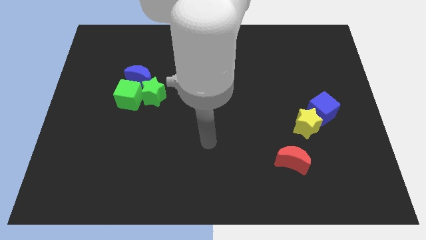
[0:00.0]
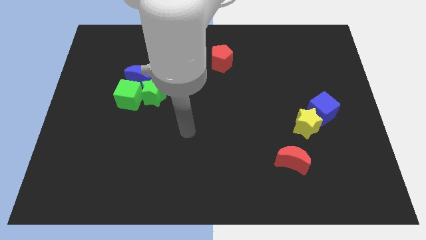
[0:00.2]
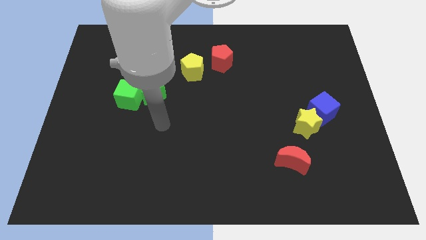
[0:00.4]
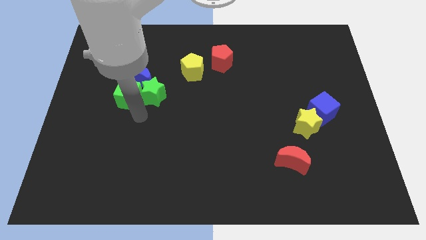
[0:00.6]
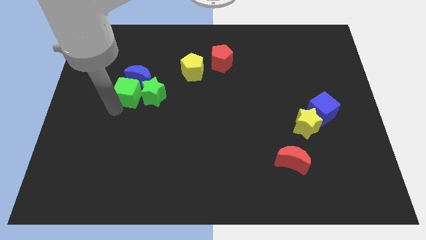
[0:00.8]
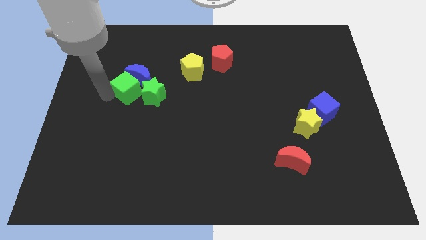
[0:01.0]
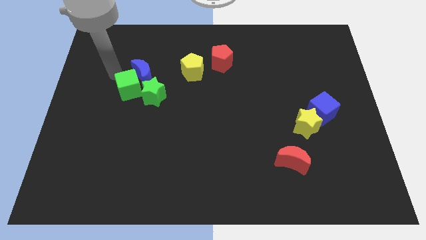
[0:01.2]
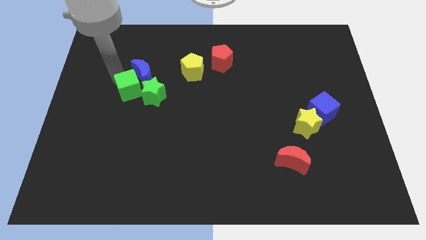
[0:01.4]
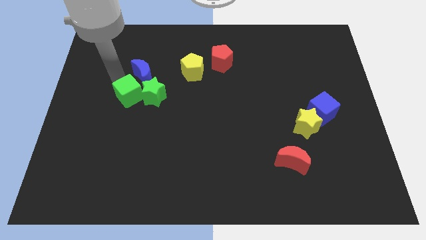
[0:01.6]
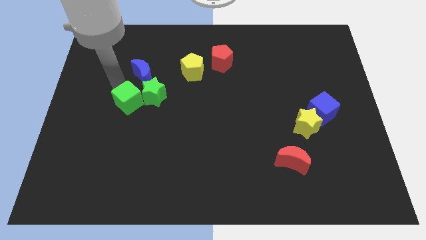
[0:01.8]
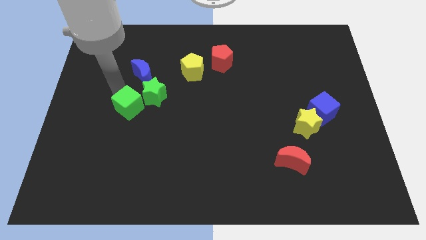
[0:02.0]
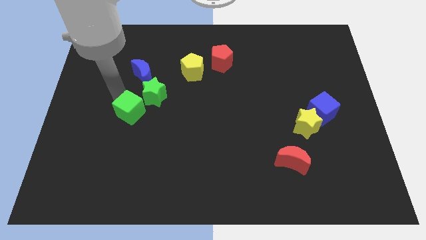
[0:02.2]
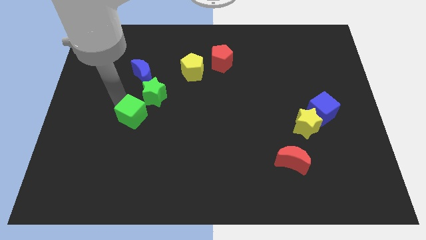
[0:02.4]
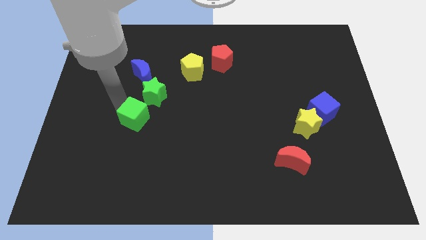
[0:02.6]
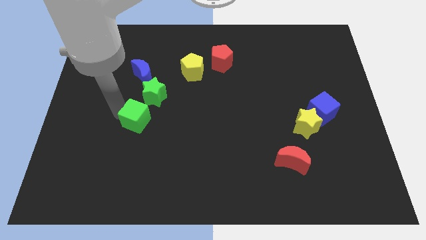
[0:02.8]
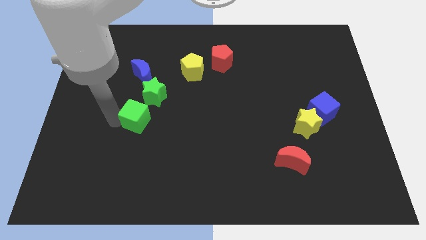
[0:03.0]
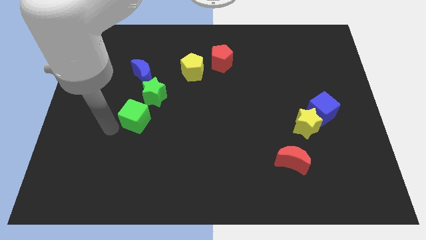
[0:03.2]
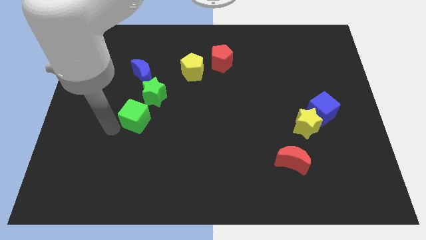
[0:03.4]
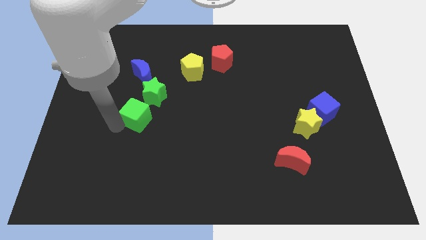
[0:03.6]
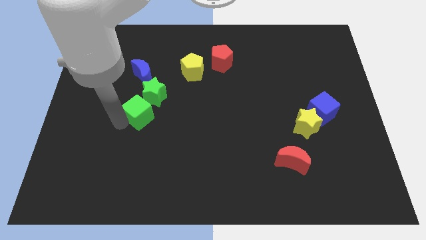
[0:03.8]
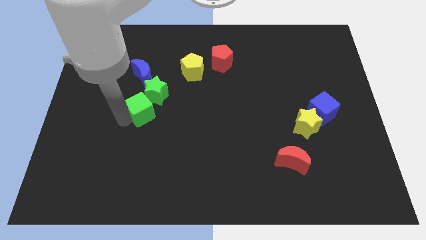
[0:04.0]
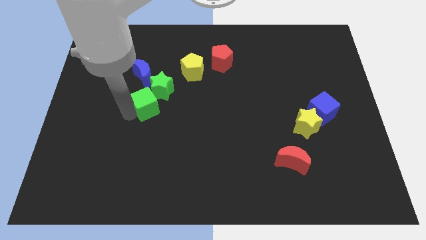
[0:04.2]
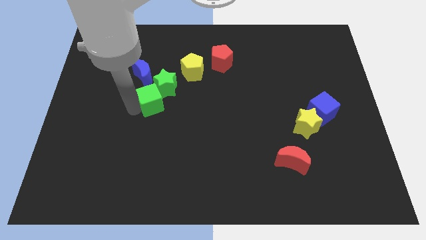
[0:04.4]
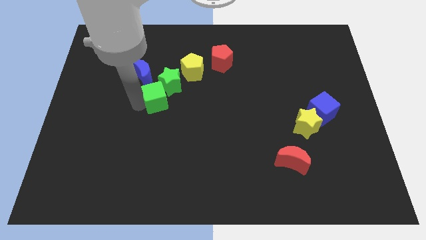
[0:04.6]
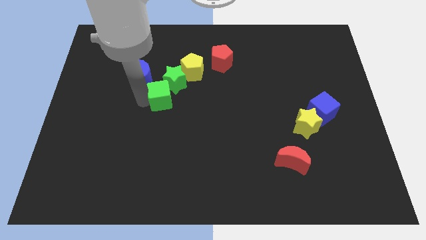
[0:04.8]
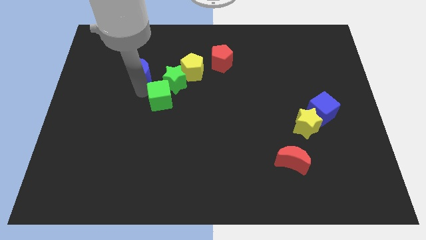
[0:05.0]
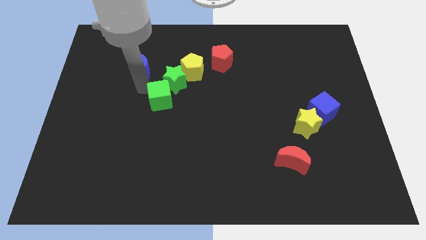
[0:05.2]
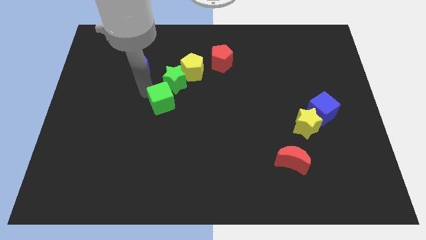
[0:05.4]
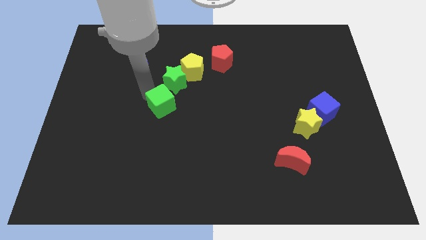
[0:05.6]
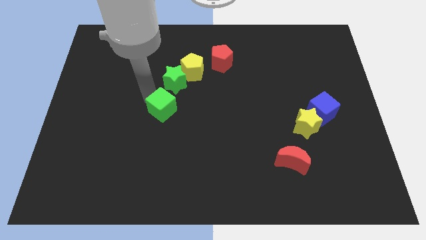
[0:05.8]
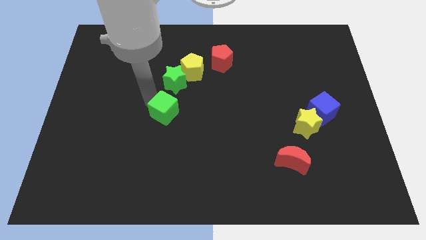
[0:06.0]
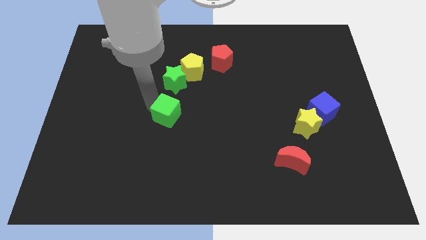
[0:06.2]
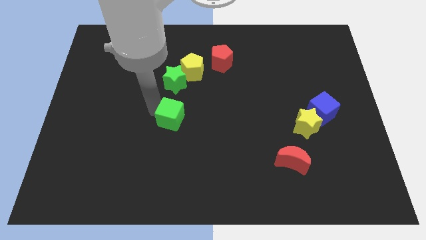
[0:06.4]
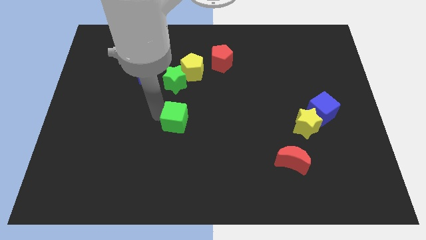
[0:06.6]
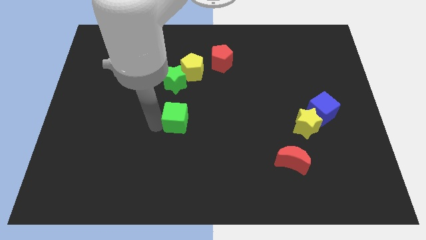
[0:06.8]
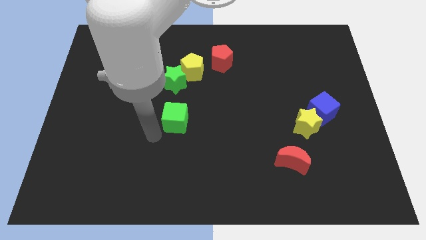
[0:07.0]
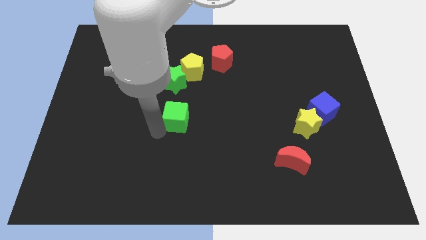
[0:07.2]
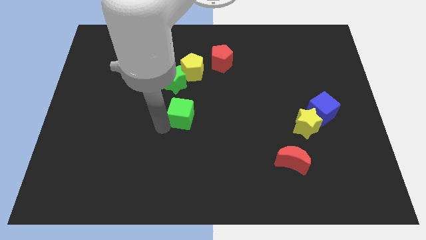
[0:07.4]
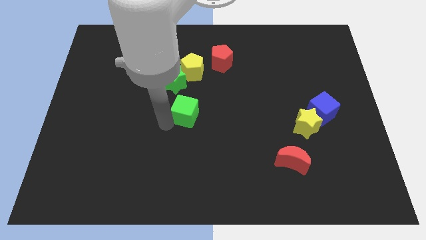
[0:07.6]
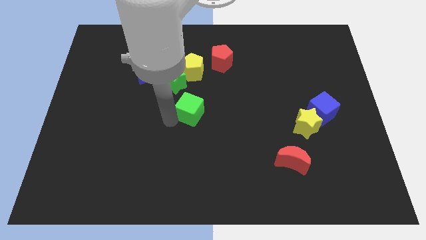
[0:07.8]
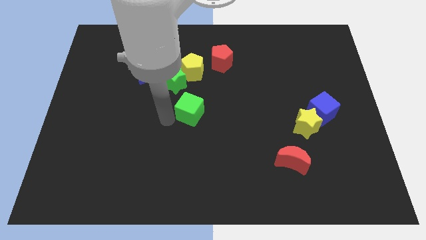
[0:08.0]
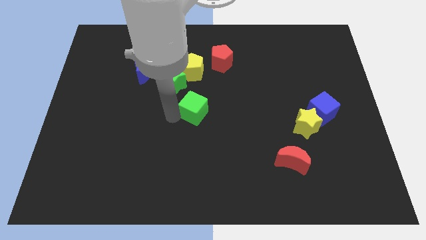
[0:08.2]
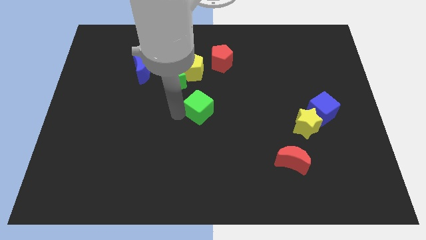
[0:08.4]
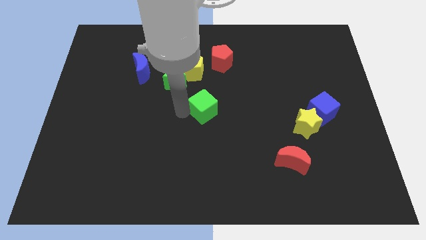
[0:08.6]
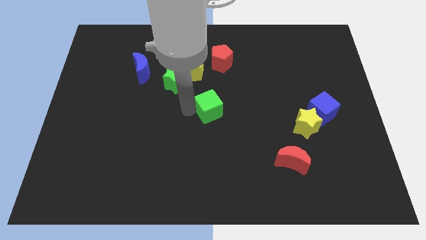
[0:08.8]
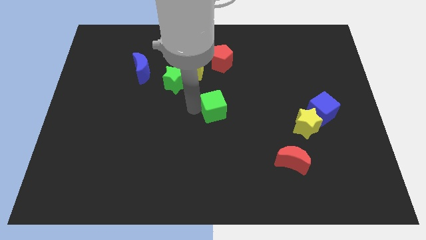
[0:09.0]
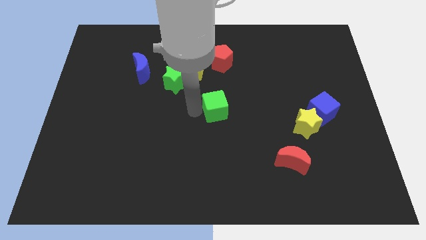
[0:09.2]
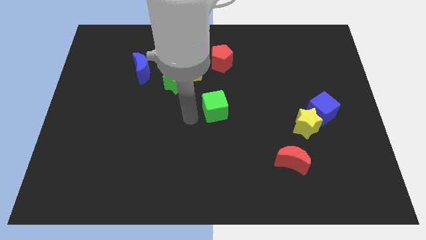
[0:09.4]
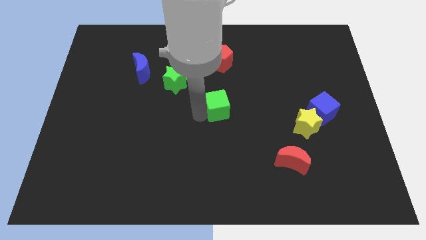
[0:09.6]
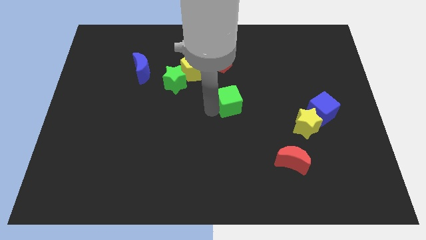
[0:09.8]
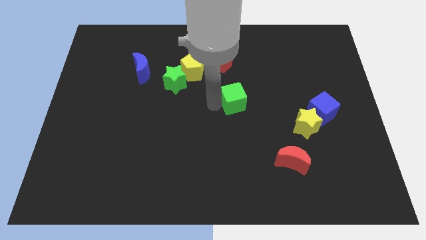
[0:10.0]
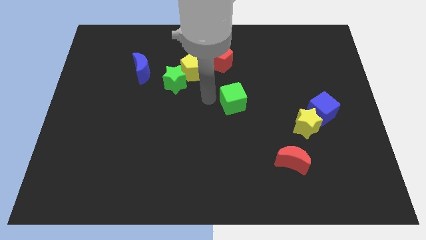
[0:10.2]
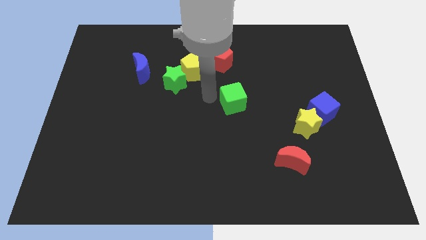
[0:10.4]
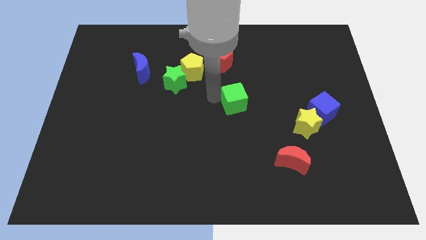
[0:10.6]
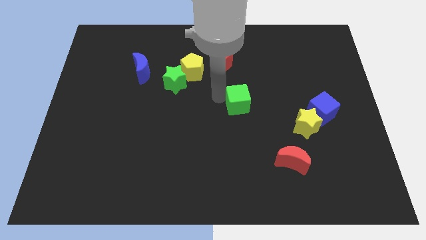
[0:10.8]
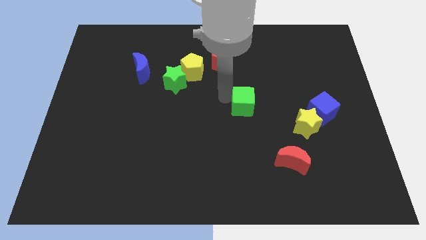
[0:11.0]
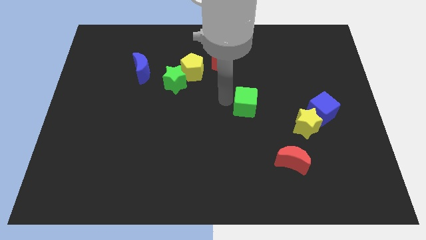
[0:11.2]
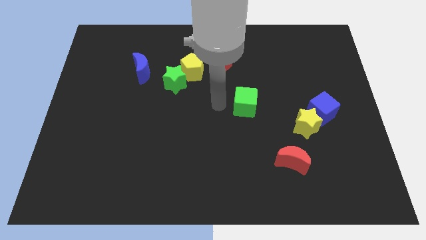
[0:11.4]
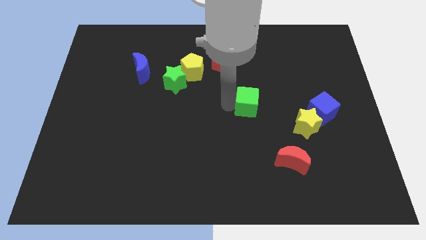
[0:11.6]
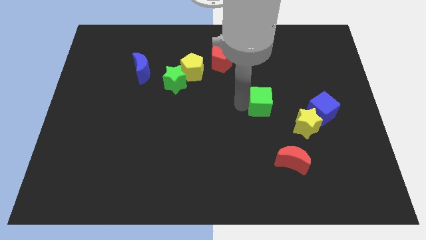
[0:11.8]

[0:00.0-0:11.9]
put the green cube diagonally up and to the left of the yellow star
